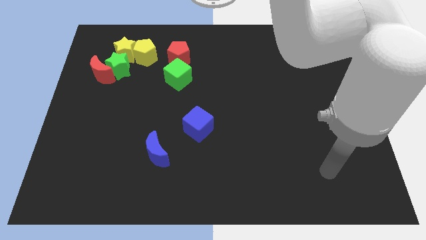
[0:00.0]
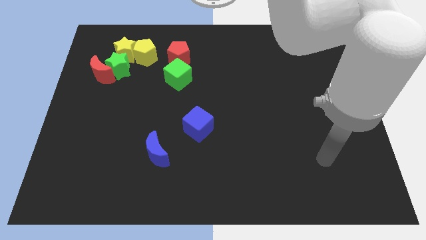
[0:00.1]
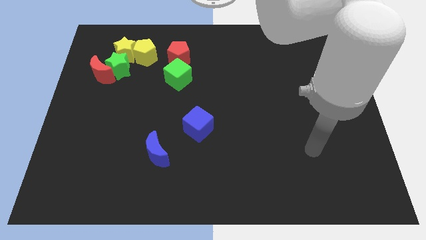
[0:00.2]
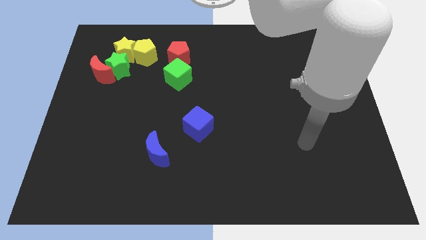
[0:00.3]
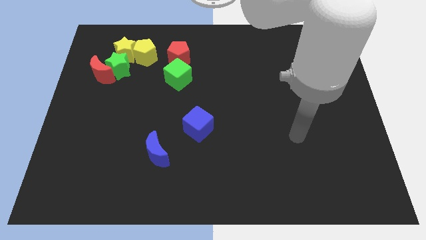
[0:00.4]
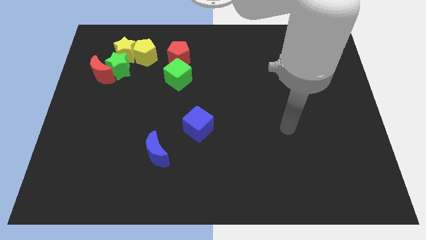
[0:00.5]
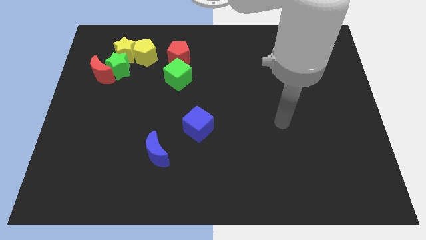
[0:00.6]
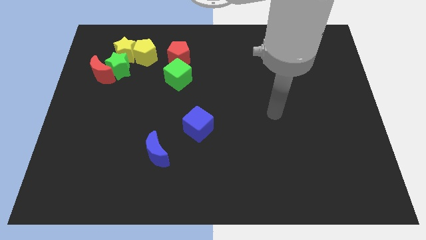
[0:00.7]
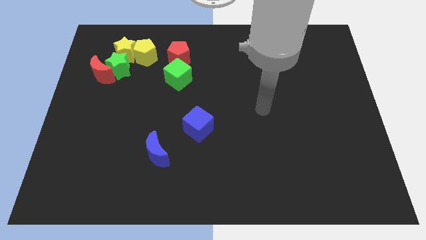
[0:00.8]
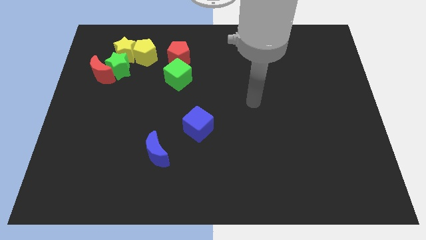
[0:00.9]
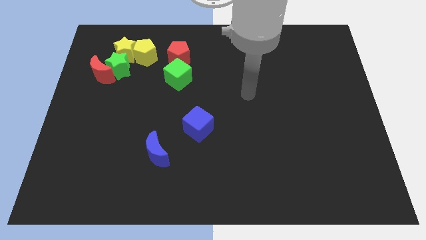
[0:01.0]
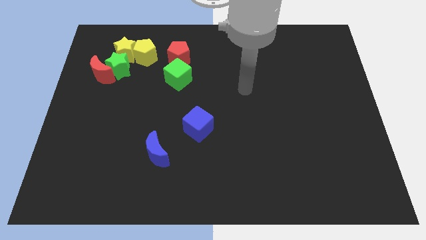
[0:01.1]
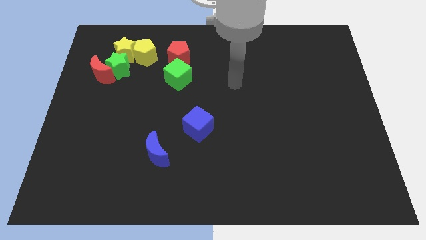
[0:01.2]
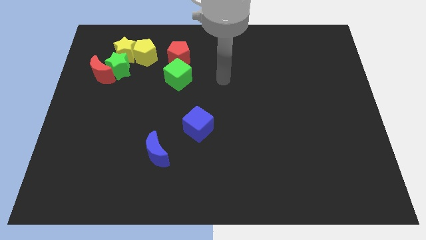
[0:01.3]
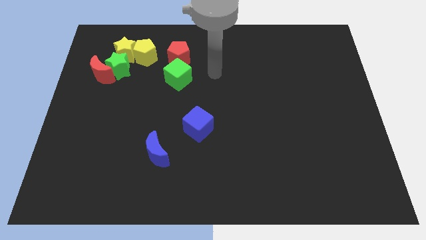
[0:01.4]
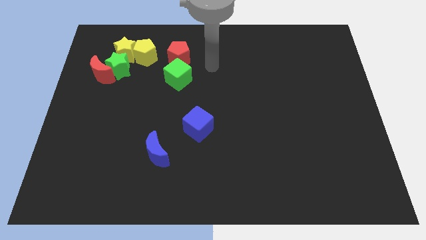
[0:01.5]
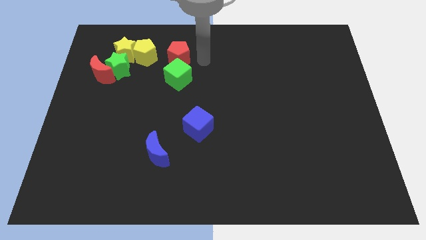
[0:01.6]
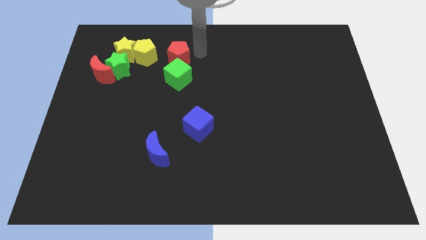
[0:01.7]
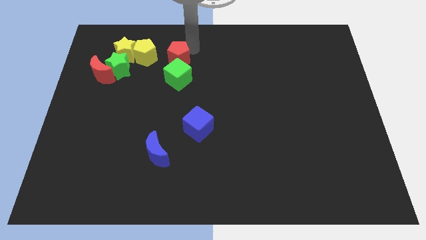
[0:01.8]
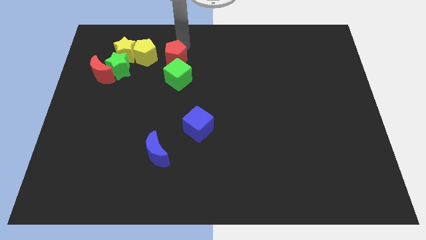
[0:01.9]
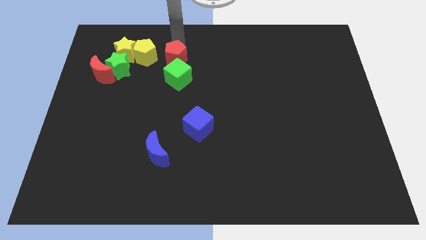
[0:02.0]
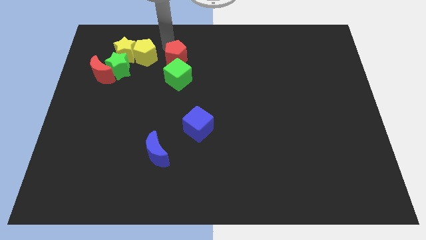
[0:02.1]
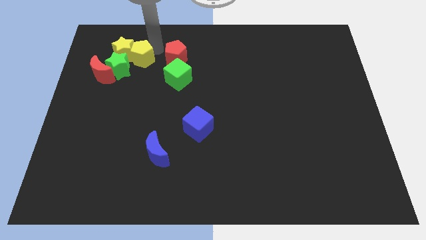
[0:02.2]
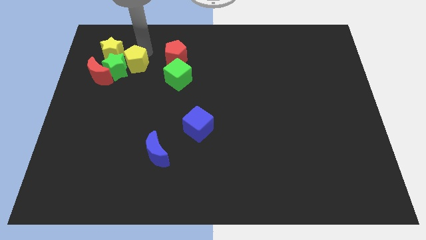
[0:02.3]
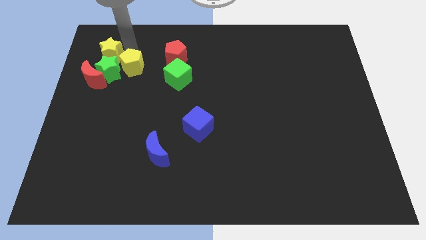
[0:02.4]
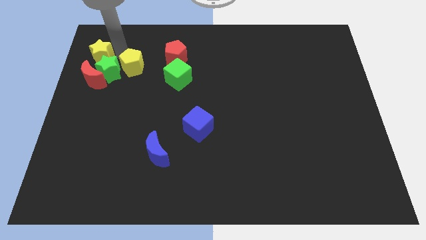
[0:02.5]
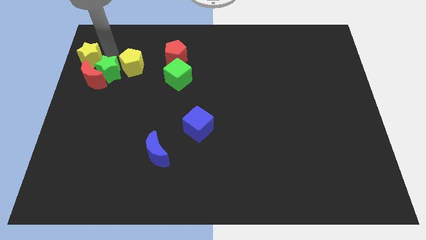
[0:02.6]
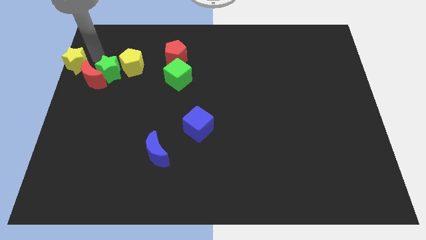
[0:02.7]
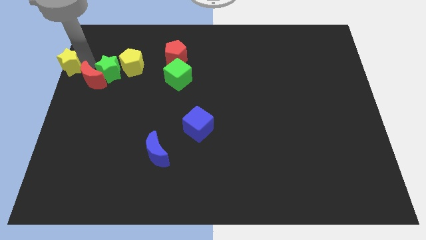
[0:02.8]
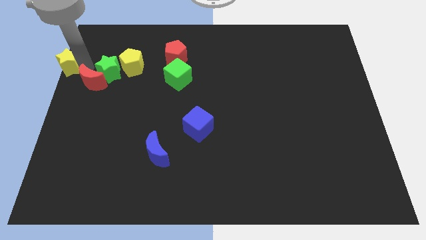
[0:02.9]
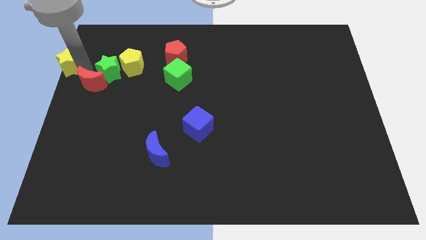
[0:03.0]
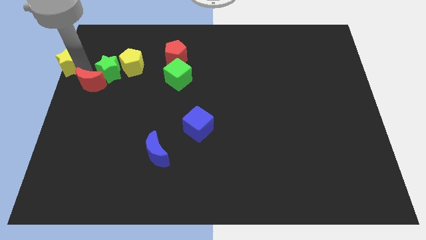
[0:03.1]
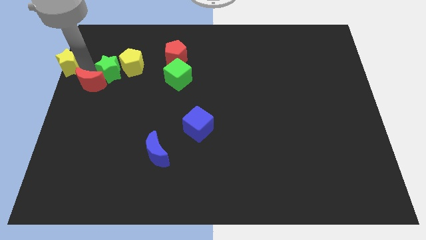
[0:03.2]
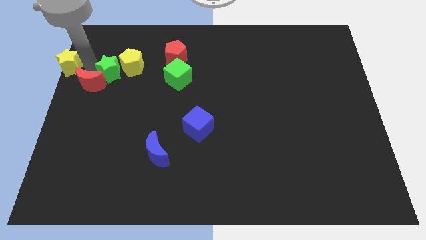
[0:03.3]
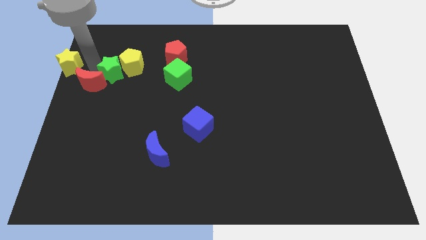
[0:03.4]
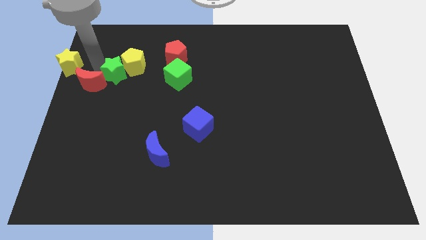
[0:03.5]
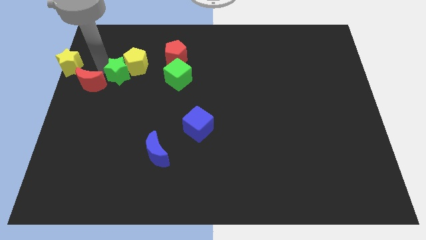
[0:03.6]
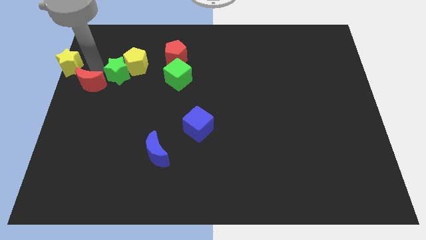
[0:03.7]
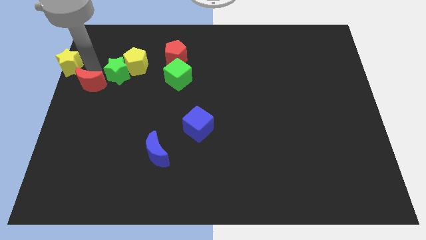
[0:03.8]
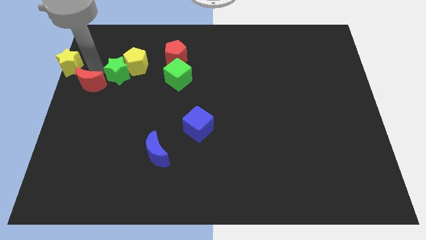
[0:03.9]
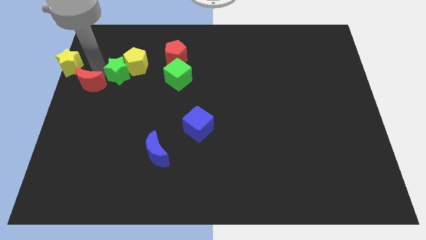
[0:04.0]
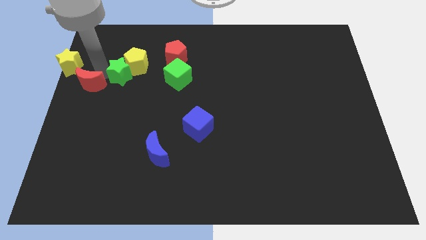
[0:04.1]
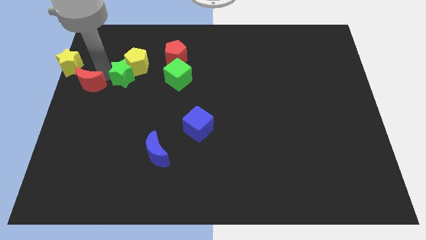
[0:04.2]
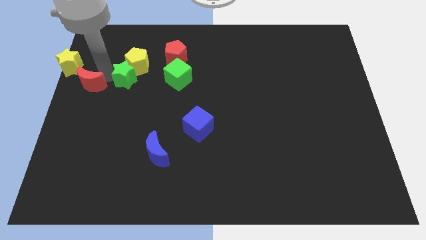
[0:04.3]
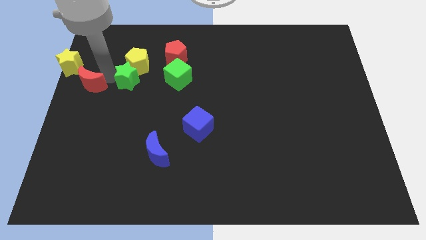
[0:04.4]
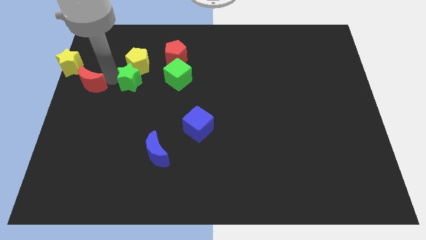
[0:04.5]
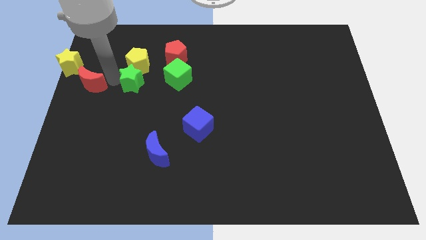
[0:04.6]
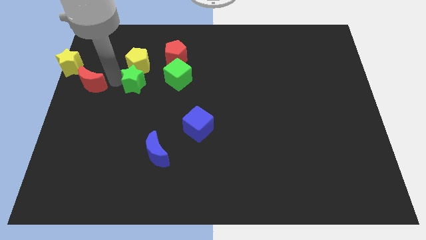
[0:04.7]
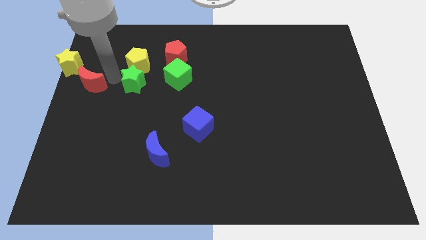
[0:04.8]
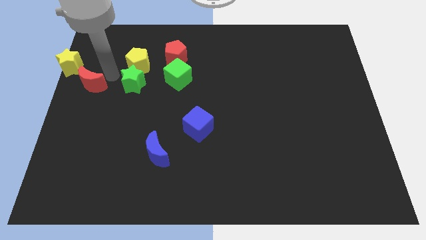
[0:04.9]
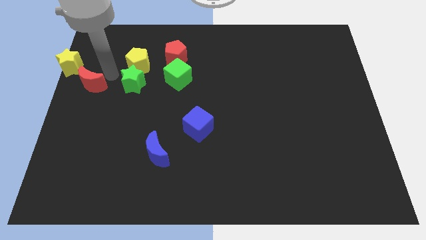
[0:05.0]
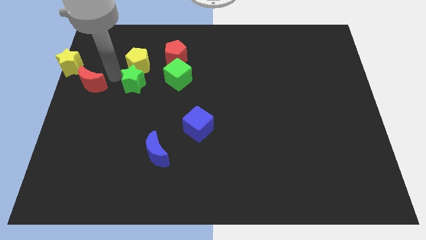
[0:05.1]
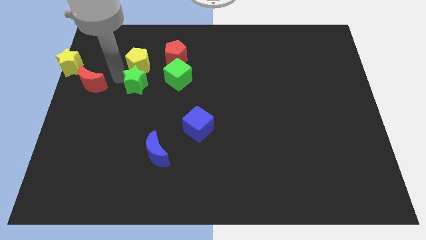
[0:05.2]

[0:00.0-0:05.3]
pull the green star apart from the red moon, yellow star, and yellow pentagon

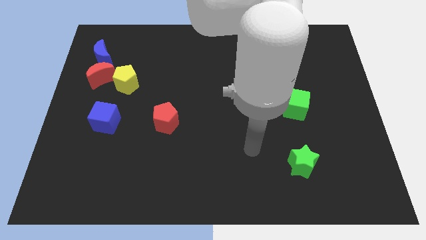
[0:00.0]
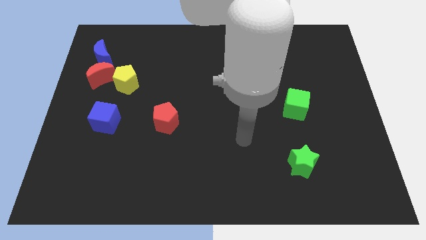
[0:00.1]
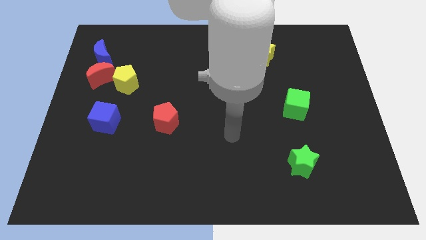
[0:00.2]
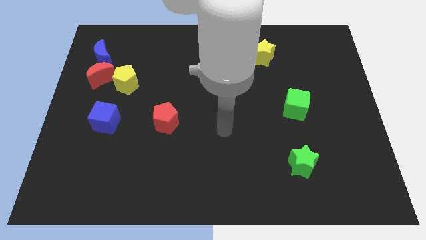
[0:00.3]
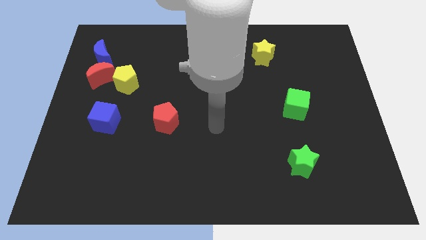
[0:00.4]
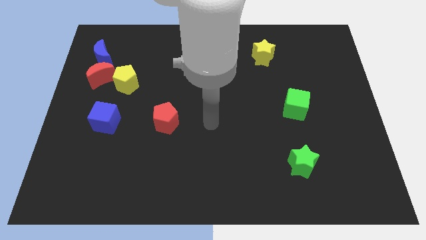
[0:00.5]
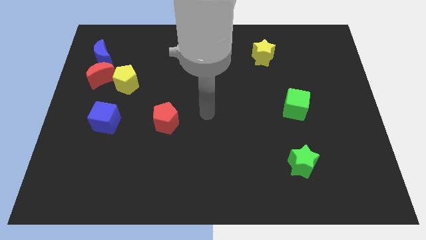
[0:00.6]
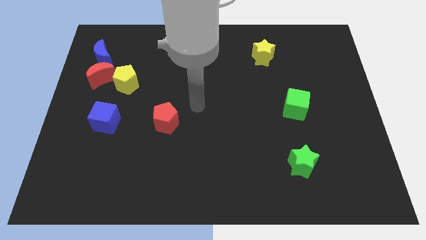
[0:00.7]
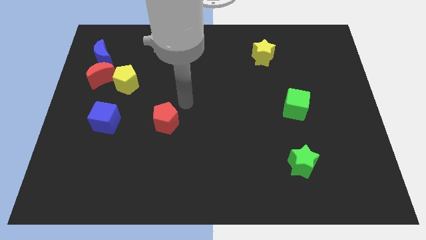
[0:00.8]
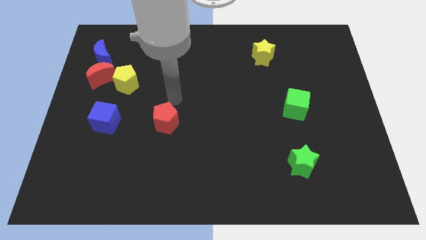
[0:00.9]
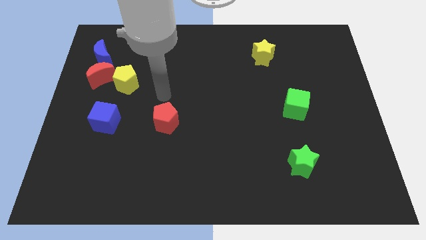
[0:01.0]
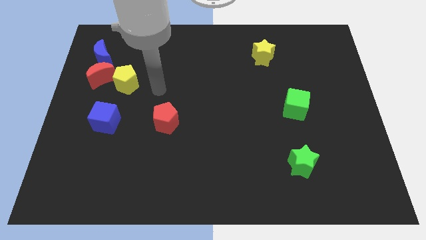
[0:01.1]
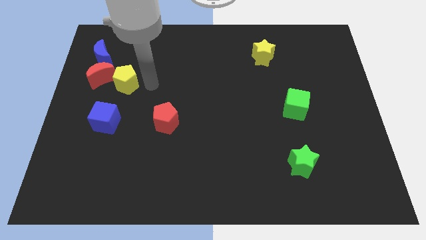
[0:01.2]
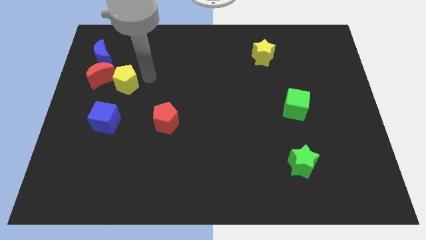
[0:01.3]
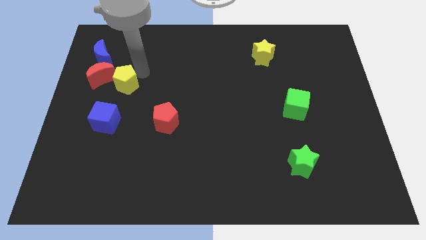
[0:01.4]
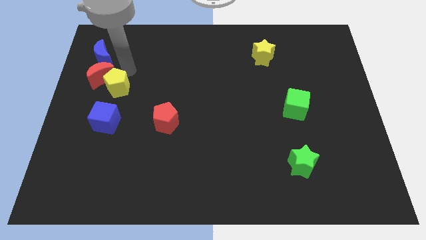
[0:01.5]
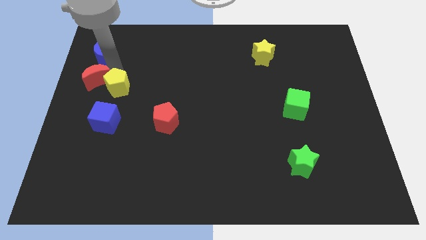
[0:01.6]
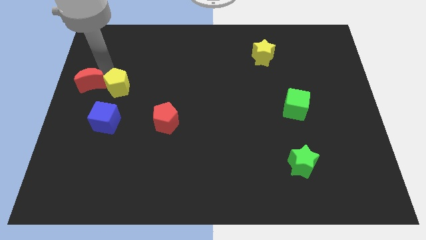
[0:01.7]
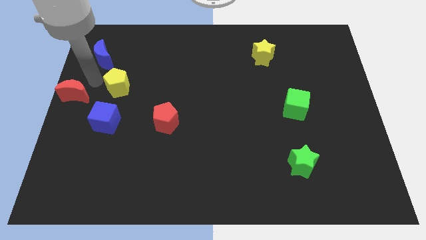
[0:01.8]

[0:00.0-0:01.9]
separate the yellow pentagon from the red moon

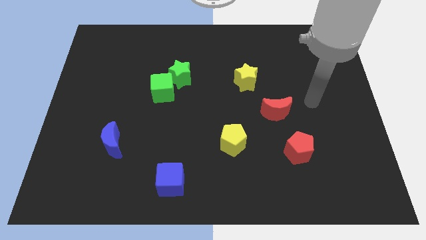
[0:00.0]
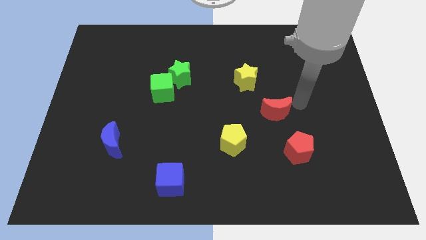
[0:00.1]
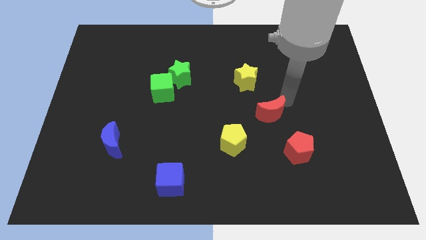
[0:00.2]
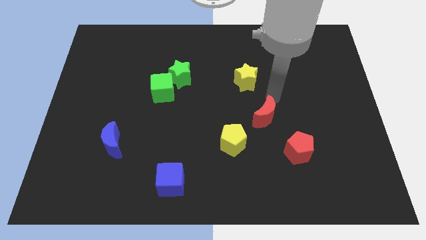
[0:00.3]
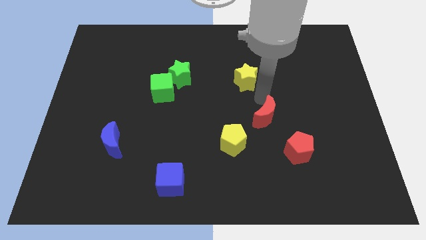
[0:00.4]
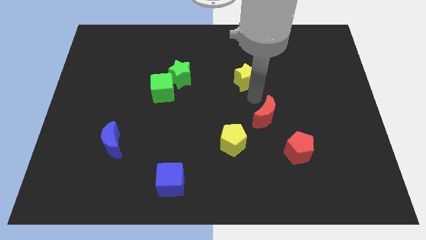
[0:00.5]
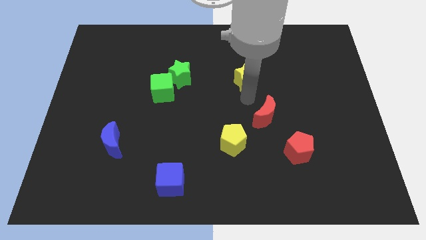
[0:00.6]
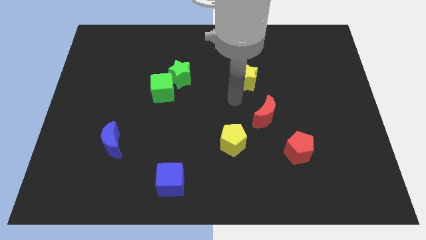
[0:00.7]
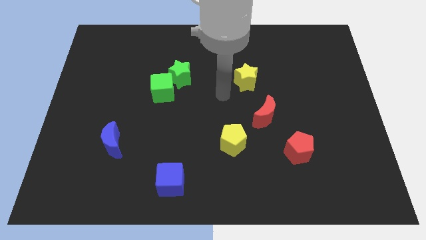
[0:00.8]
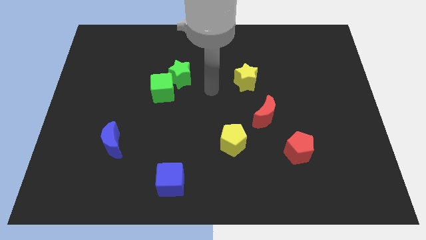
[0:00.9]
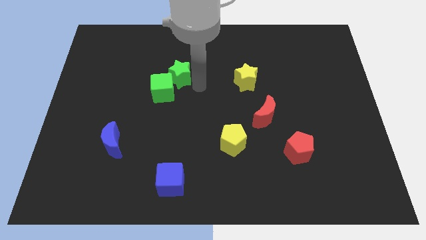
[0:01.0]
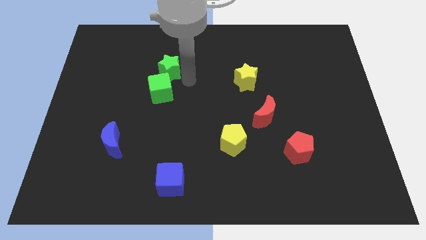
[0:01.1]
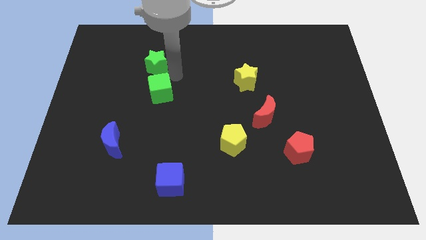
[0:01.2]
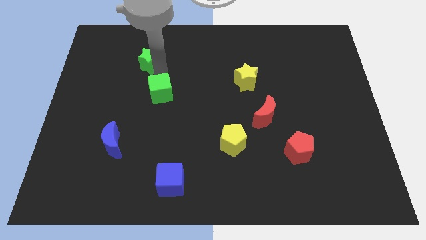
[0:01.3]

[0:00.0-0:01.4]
separate the green cube from the green star

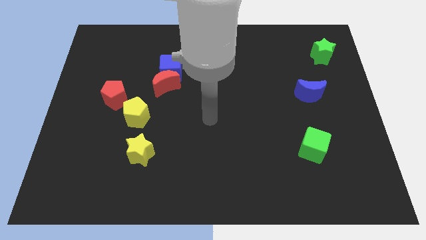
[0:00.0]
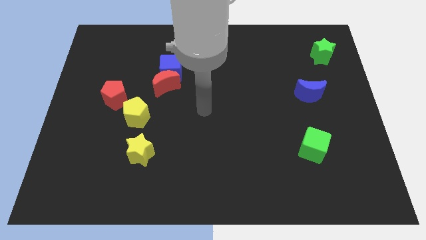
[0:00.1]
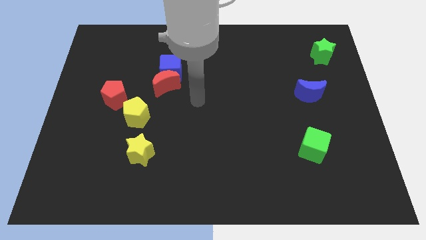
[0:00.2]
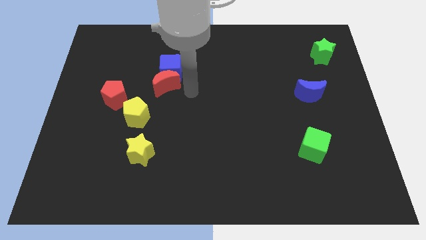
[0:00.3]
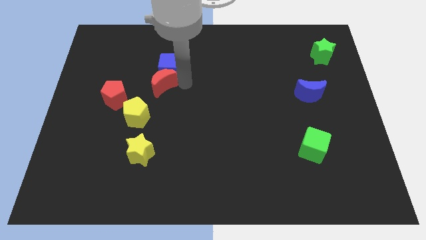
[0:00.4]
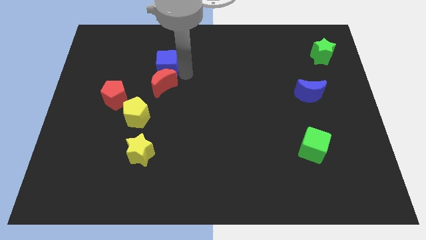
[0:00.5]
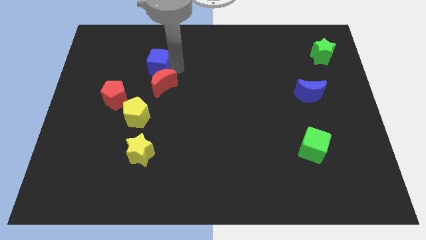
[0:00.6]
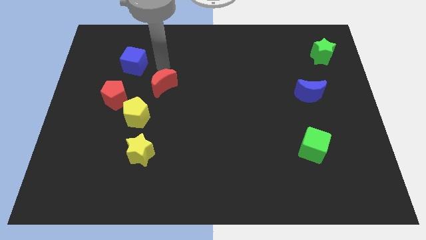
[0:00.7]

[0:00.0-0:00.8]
move the red moon away from the blue cube
